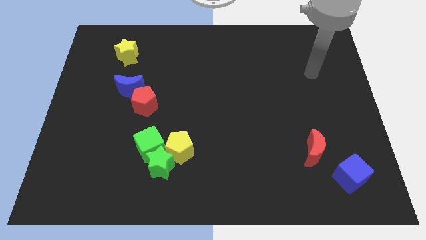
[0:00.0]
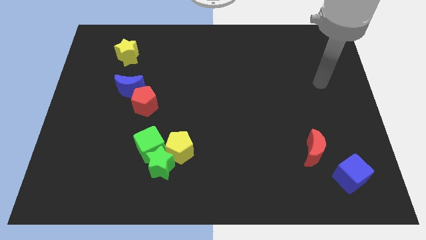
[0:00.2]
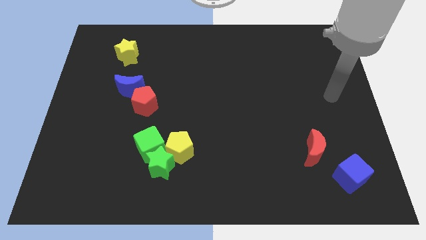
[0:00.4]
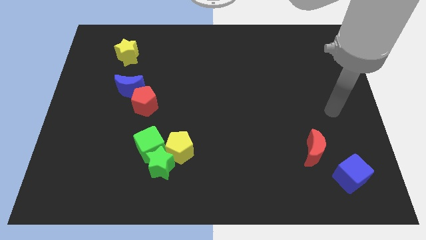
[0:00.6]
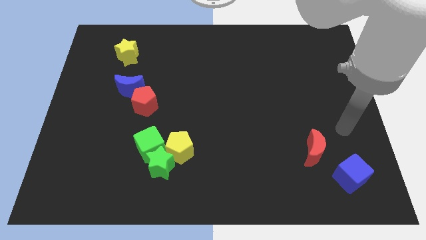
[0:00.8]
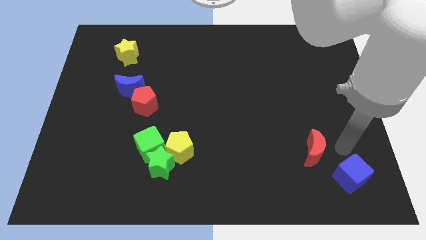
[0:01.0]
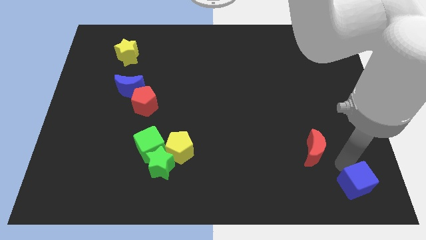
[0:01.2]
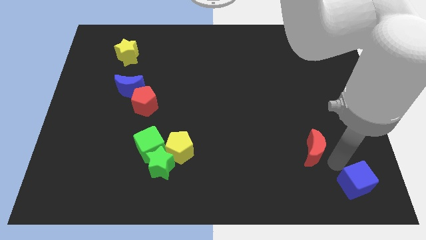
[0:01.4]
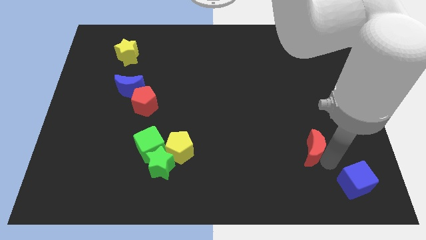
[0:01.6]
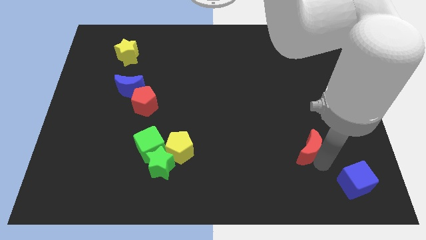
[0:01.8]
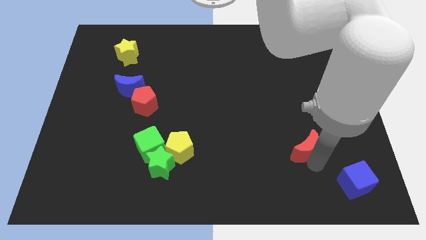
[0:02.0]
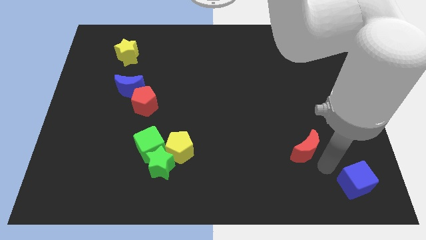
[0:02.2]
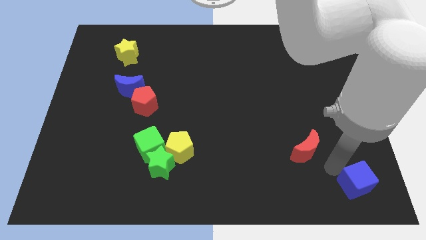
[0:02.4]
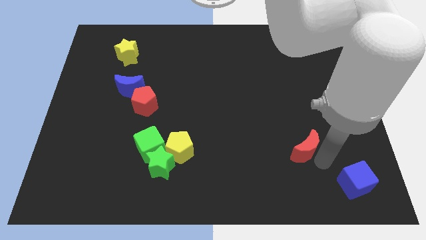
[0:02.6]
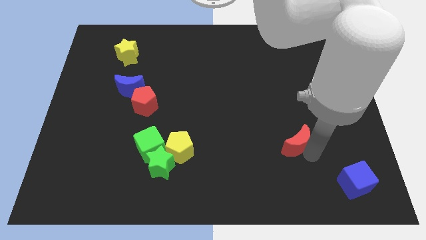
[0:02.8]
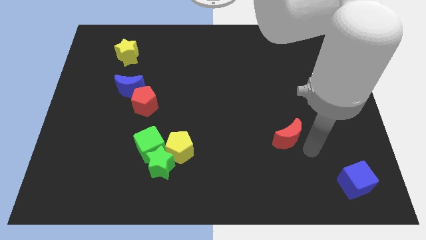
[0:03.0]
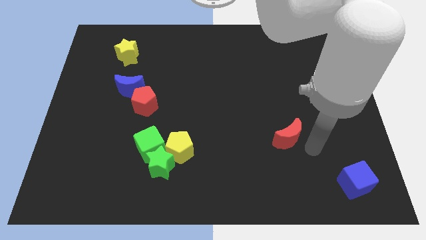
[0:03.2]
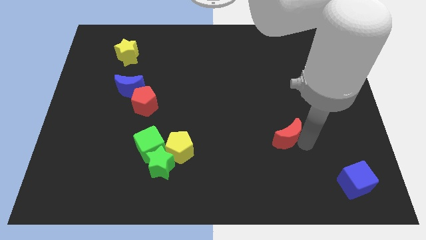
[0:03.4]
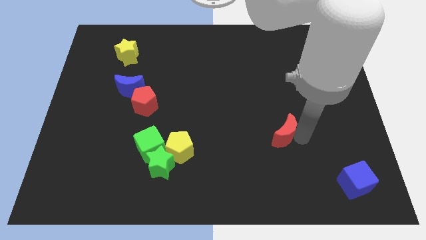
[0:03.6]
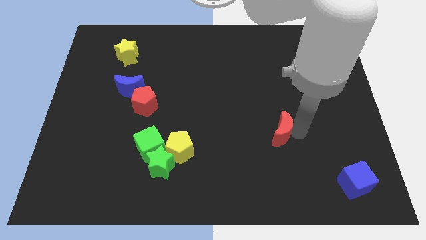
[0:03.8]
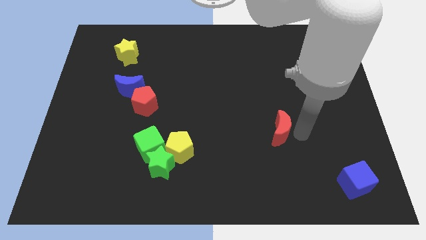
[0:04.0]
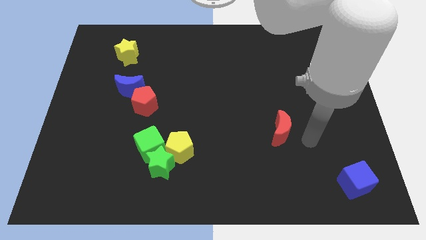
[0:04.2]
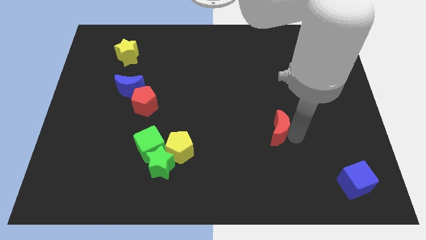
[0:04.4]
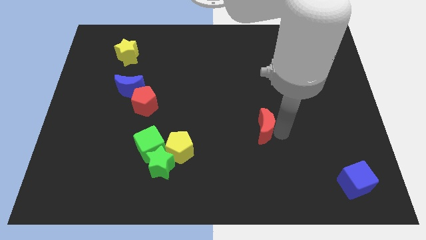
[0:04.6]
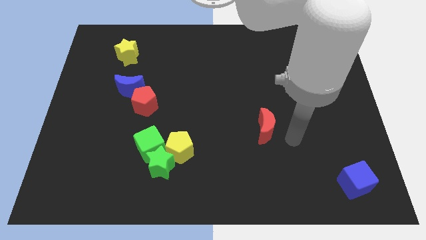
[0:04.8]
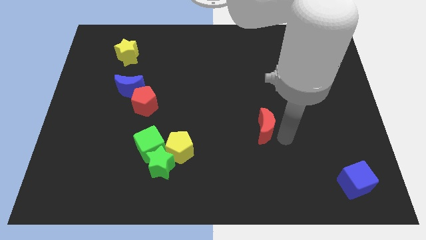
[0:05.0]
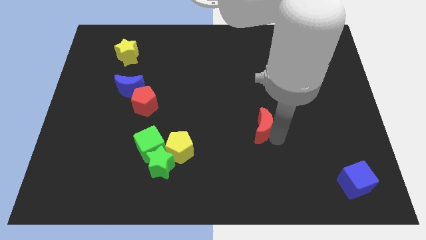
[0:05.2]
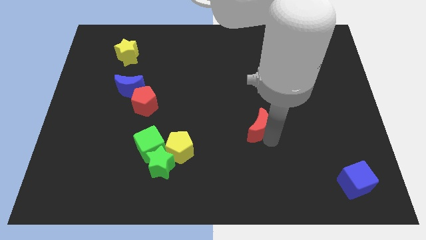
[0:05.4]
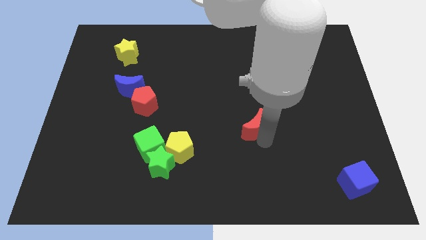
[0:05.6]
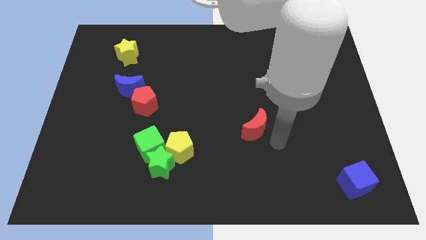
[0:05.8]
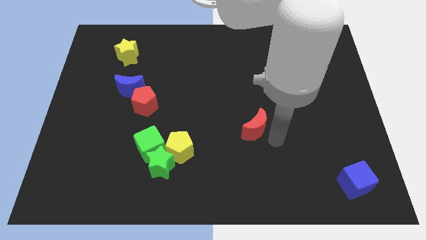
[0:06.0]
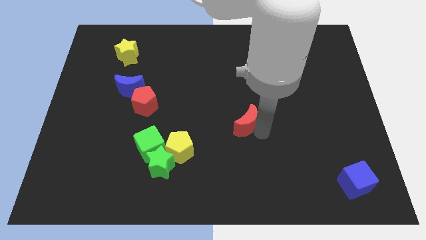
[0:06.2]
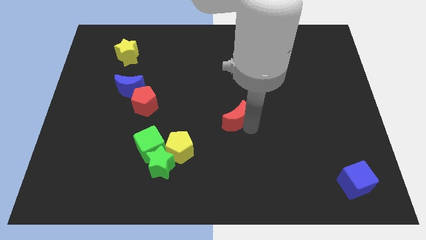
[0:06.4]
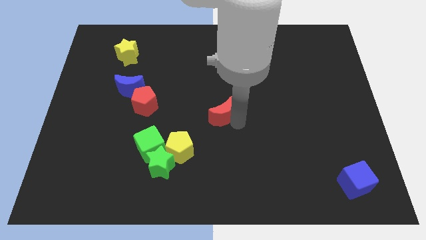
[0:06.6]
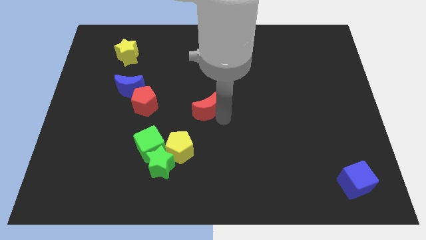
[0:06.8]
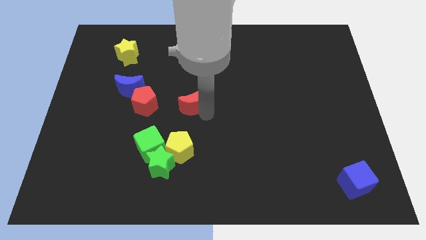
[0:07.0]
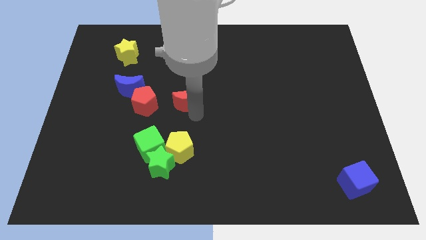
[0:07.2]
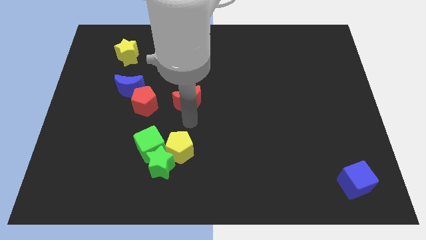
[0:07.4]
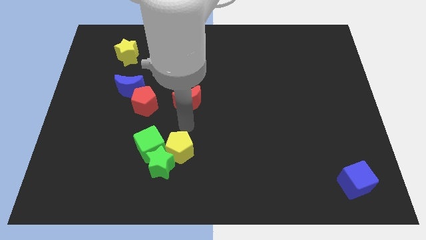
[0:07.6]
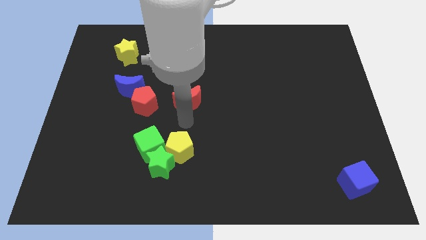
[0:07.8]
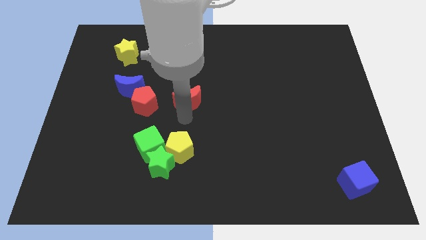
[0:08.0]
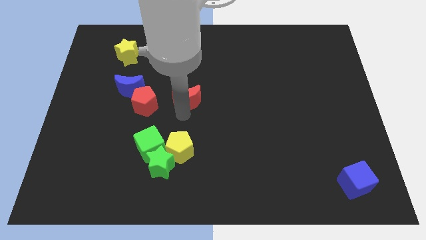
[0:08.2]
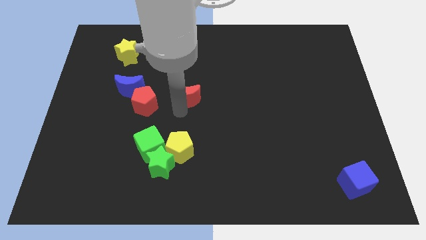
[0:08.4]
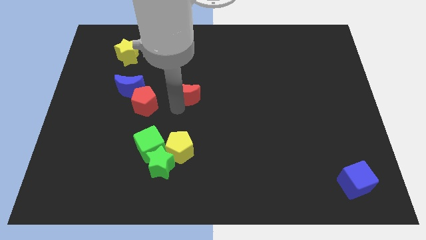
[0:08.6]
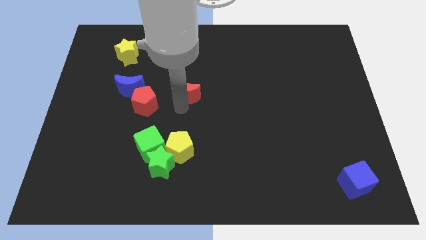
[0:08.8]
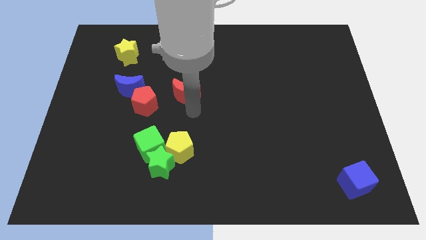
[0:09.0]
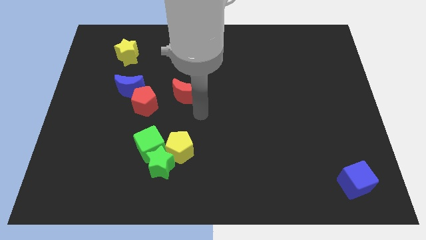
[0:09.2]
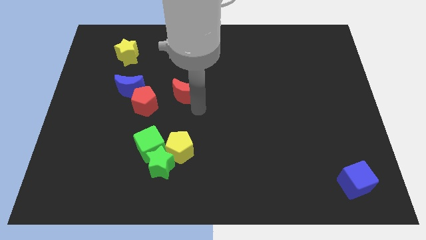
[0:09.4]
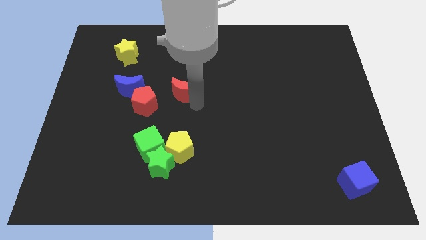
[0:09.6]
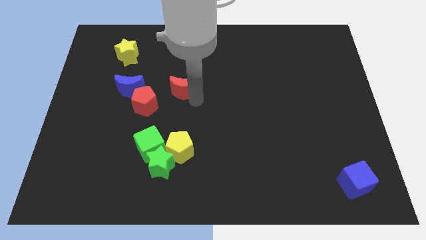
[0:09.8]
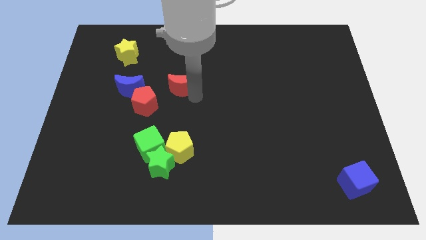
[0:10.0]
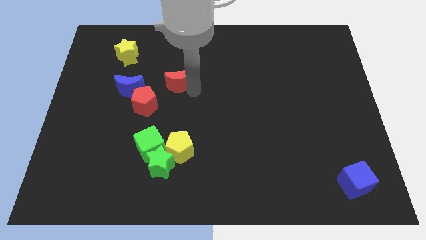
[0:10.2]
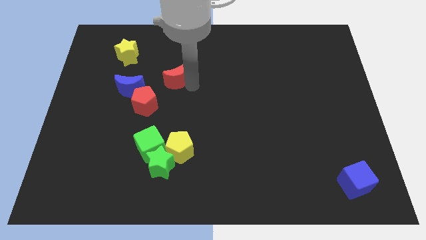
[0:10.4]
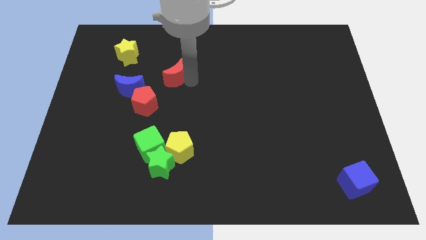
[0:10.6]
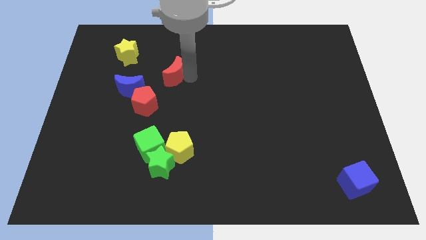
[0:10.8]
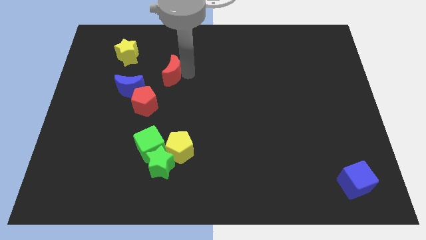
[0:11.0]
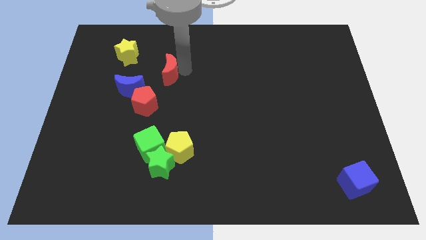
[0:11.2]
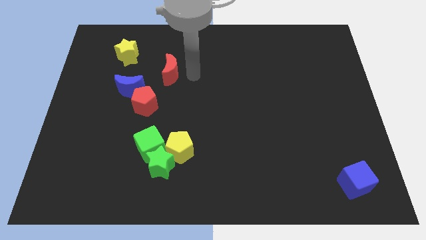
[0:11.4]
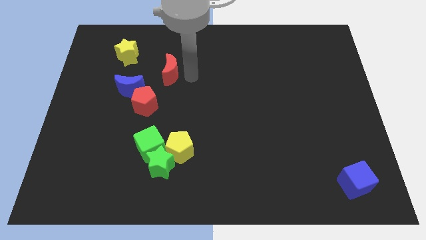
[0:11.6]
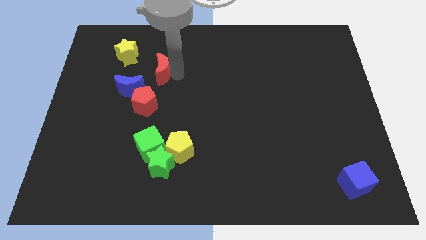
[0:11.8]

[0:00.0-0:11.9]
slide the red moon to the bottom right side of the yellow star

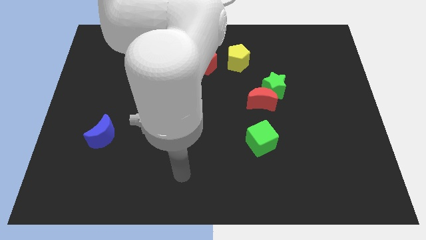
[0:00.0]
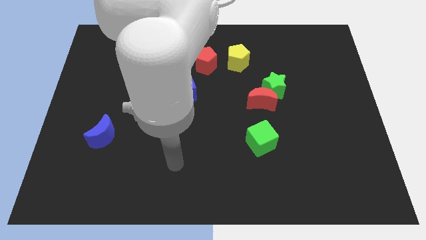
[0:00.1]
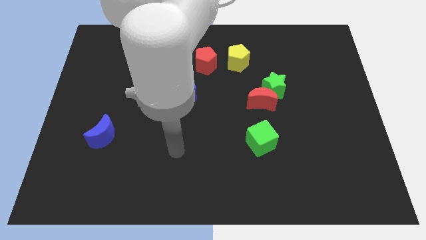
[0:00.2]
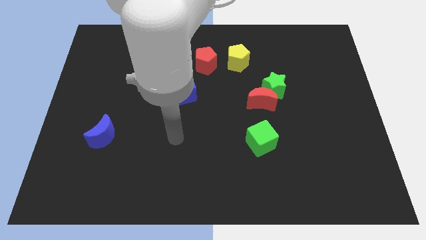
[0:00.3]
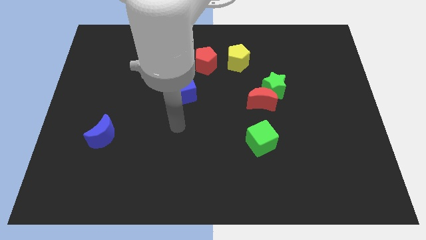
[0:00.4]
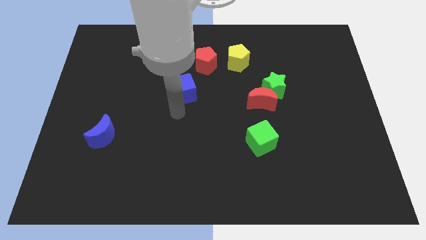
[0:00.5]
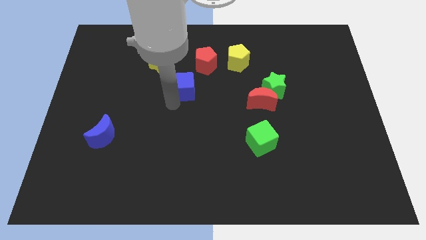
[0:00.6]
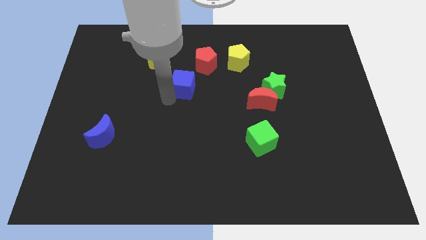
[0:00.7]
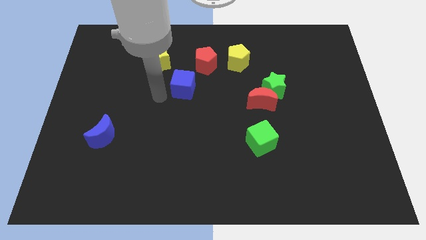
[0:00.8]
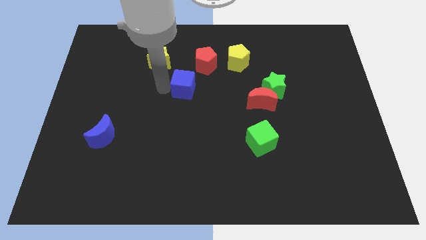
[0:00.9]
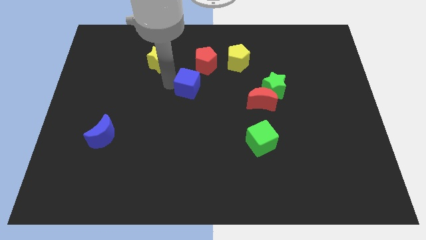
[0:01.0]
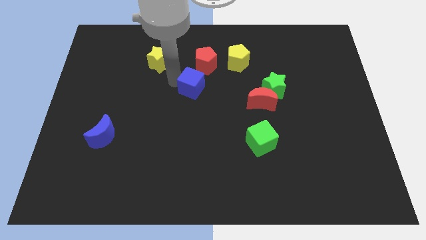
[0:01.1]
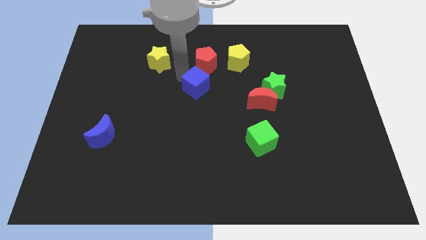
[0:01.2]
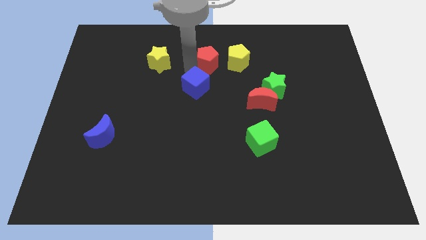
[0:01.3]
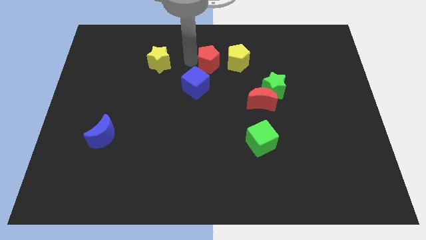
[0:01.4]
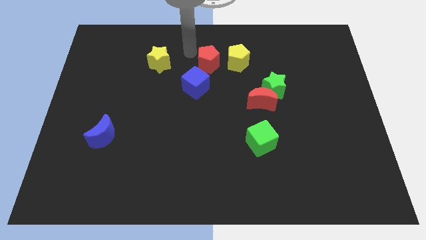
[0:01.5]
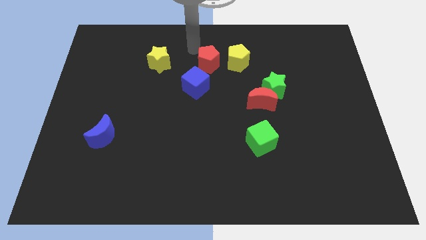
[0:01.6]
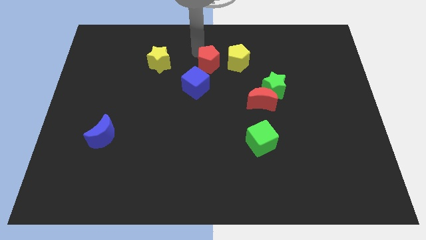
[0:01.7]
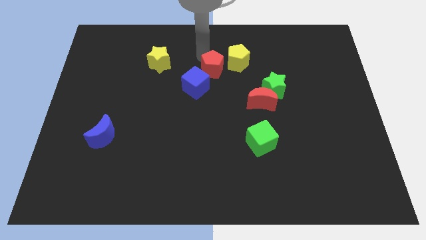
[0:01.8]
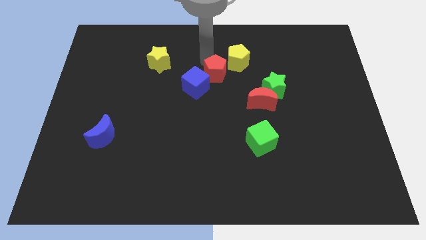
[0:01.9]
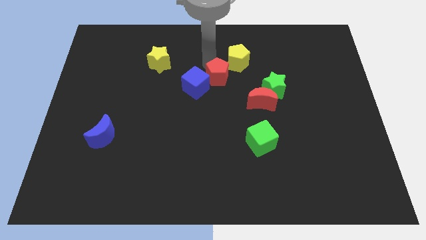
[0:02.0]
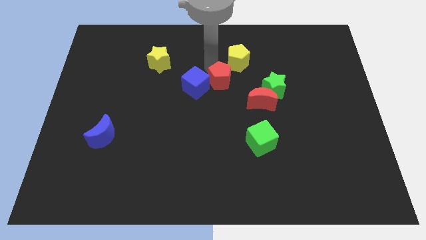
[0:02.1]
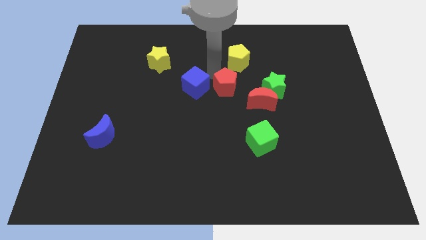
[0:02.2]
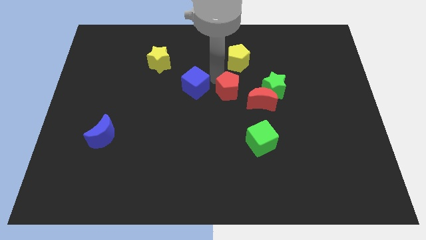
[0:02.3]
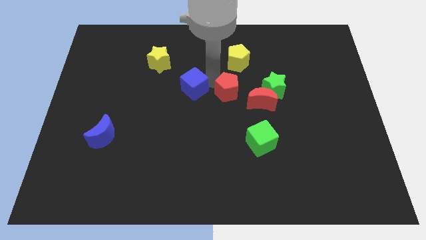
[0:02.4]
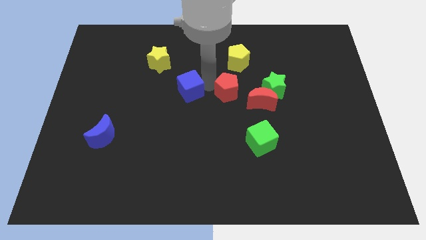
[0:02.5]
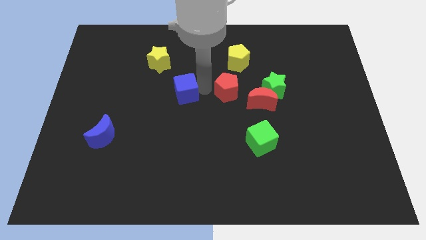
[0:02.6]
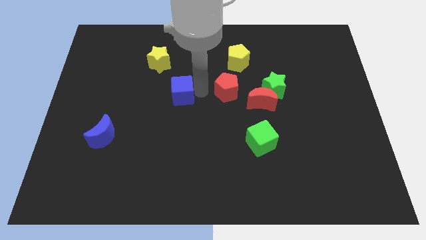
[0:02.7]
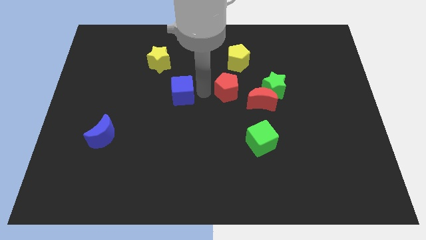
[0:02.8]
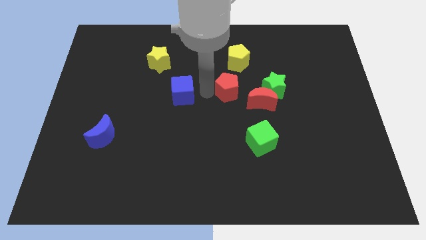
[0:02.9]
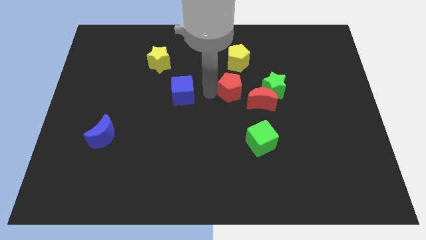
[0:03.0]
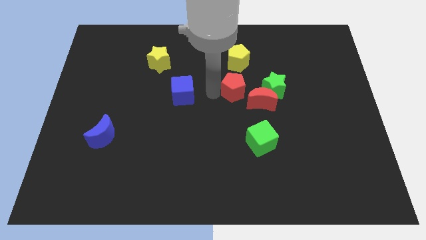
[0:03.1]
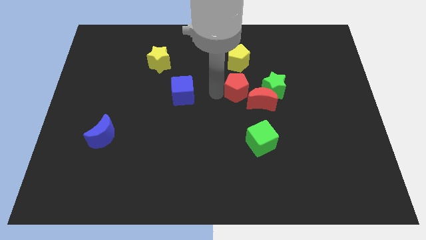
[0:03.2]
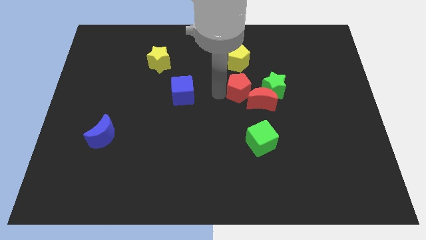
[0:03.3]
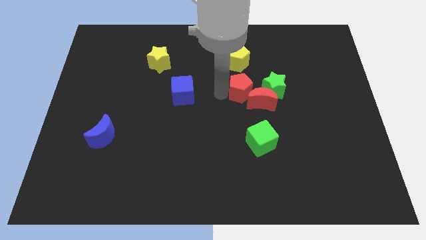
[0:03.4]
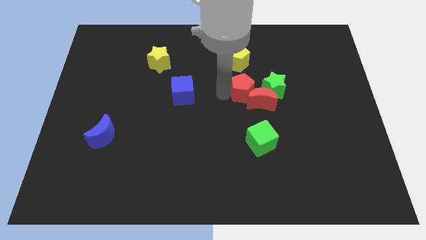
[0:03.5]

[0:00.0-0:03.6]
move the red pentagon above the green cube
